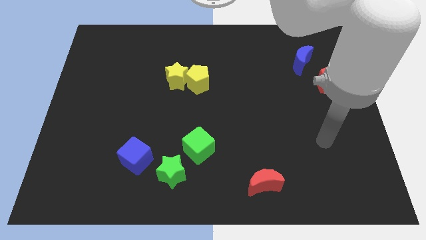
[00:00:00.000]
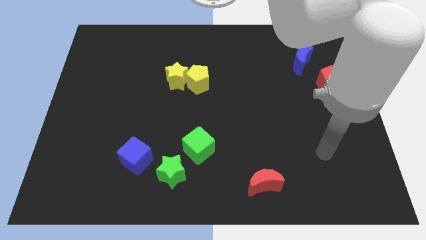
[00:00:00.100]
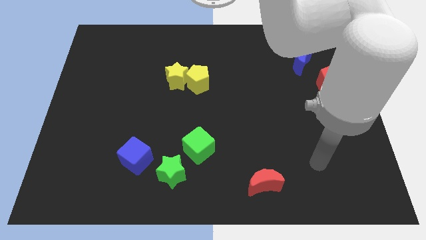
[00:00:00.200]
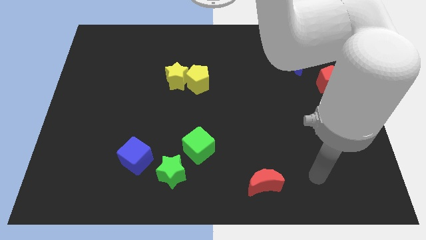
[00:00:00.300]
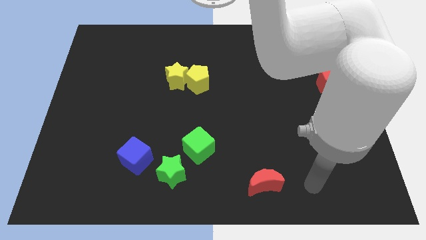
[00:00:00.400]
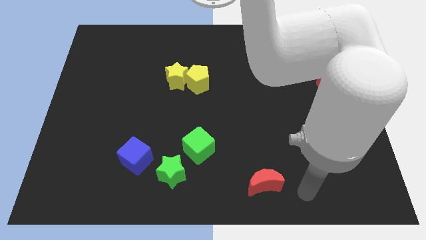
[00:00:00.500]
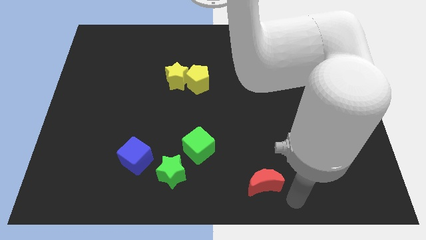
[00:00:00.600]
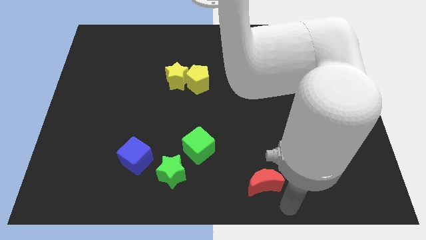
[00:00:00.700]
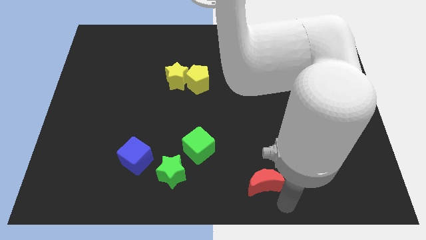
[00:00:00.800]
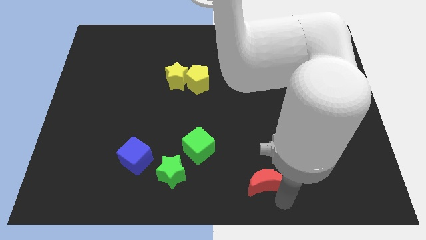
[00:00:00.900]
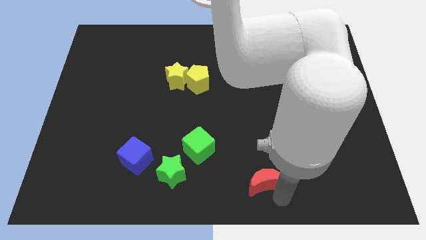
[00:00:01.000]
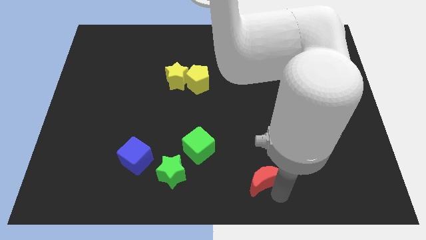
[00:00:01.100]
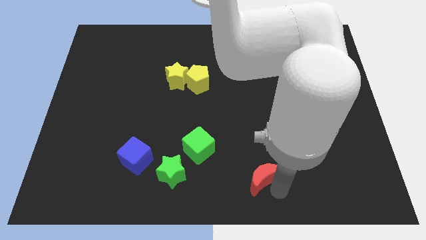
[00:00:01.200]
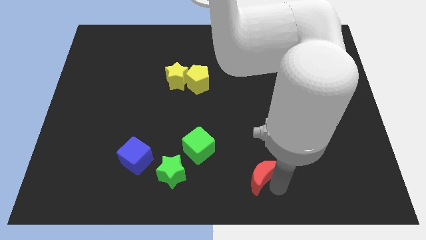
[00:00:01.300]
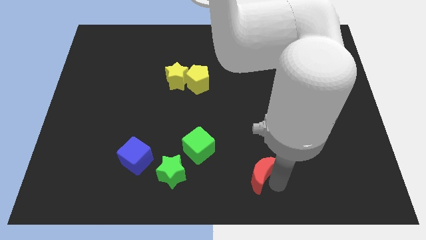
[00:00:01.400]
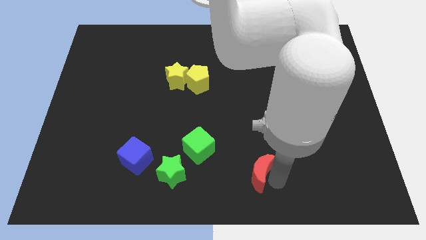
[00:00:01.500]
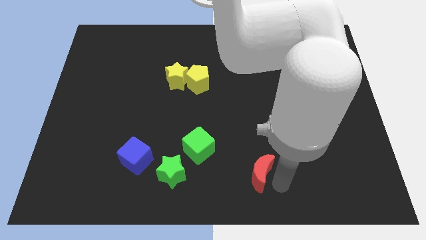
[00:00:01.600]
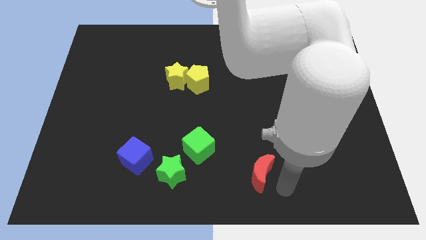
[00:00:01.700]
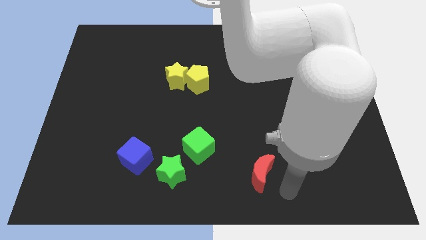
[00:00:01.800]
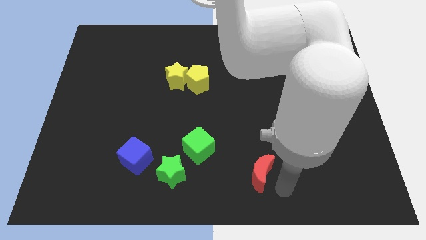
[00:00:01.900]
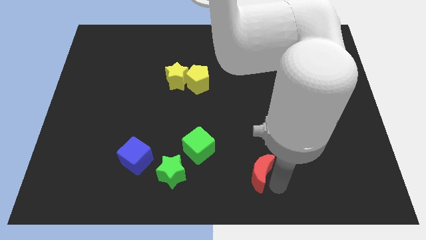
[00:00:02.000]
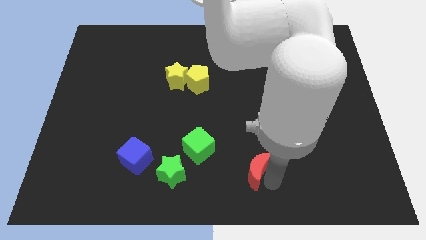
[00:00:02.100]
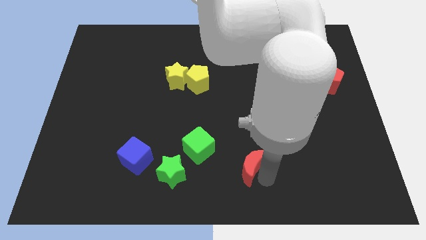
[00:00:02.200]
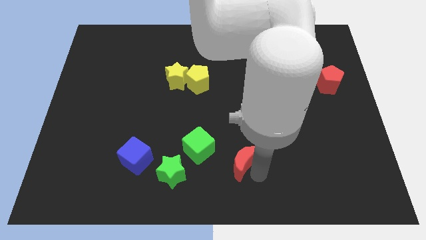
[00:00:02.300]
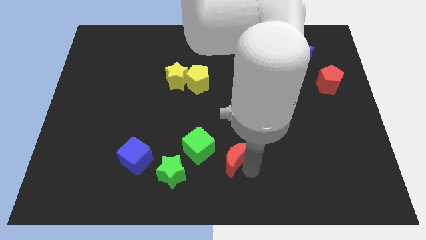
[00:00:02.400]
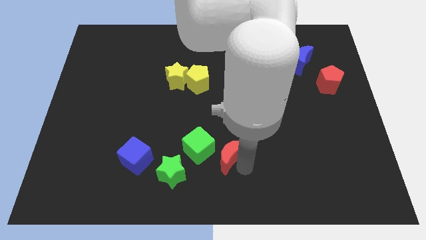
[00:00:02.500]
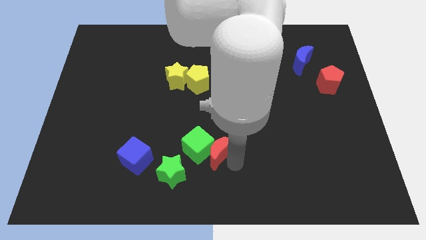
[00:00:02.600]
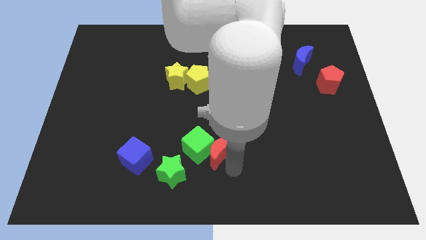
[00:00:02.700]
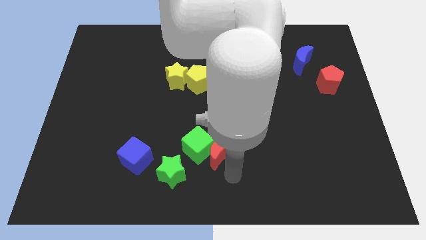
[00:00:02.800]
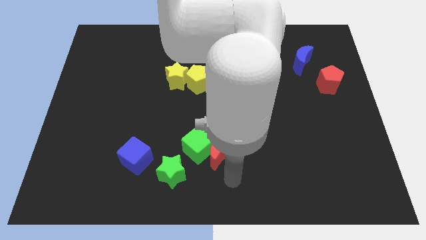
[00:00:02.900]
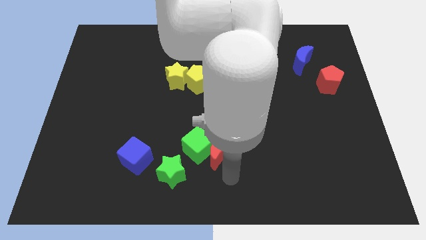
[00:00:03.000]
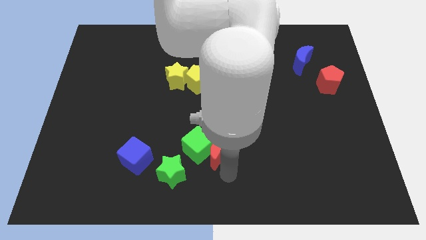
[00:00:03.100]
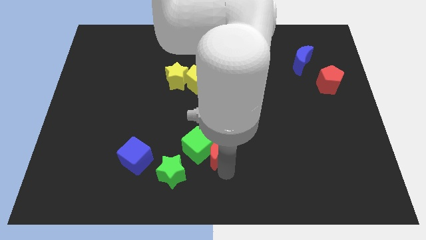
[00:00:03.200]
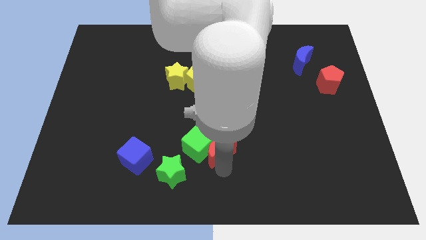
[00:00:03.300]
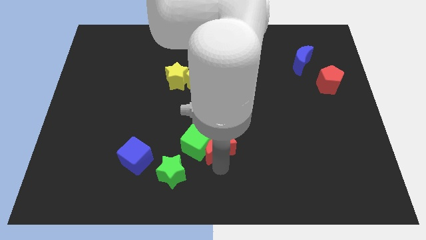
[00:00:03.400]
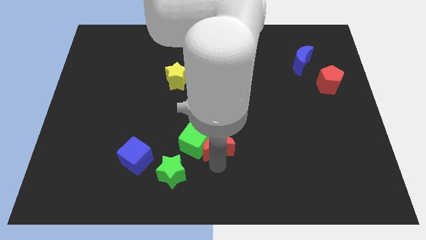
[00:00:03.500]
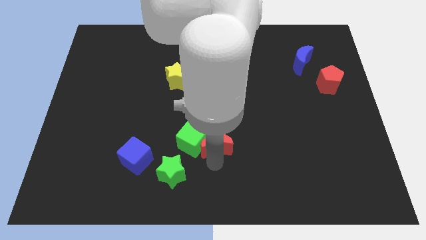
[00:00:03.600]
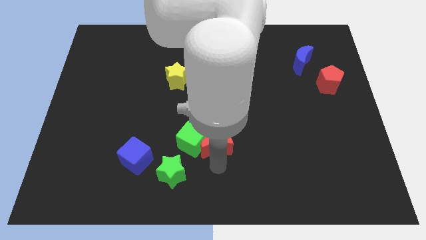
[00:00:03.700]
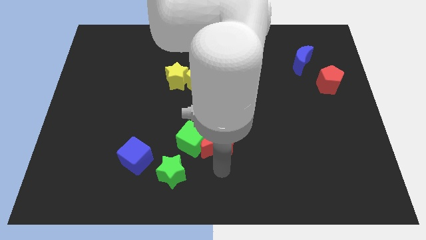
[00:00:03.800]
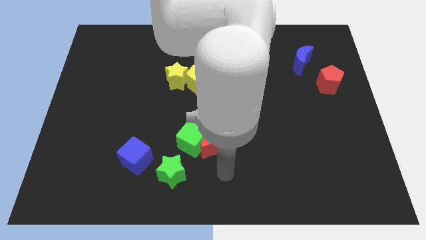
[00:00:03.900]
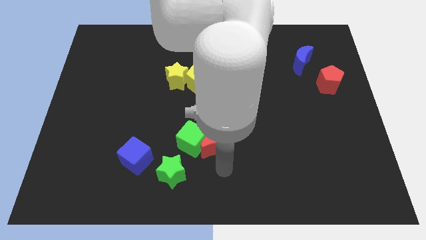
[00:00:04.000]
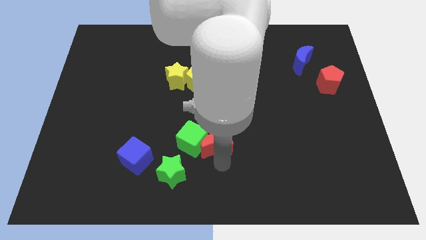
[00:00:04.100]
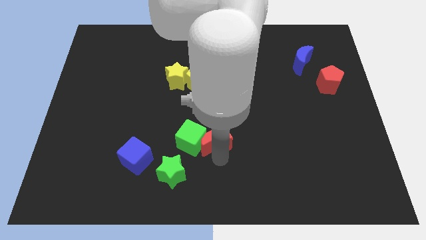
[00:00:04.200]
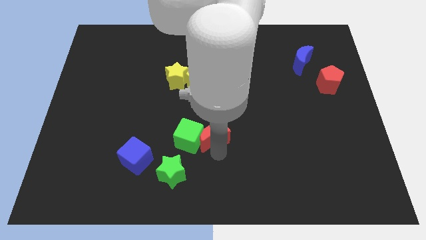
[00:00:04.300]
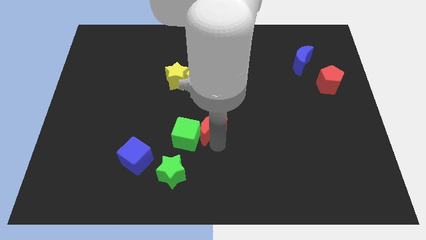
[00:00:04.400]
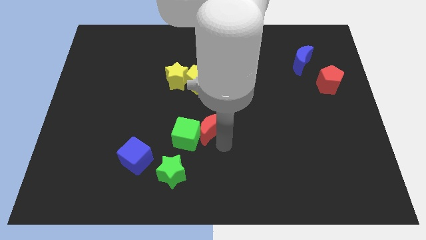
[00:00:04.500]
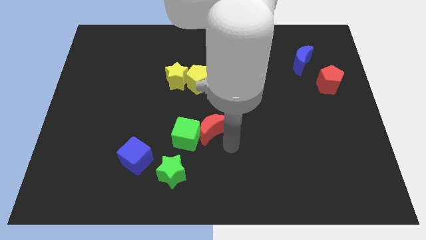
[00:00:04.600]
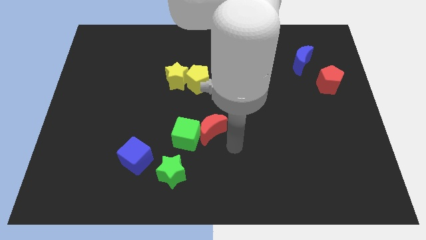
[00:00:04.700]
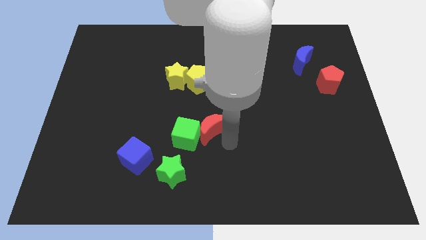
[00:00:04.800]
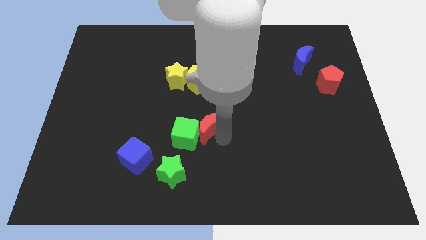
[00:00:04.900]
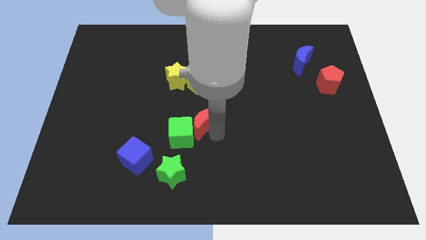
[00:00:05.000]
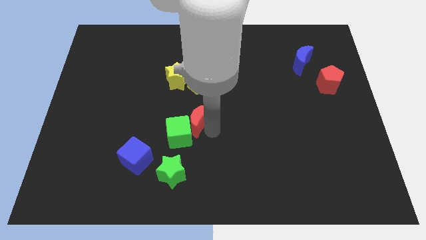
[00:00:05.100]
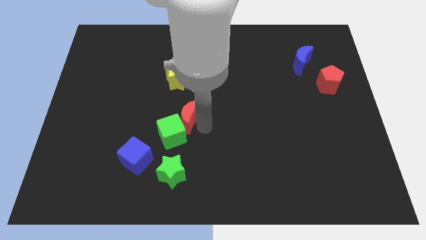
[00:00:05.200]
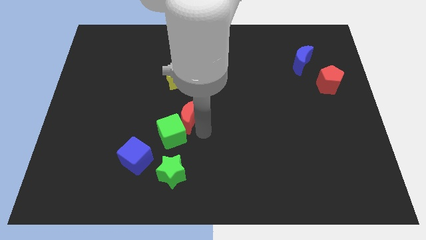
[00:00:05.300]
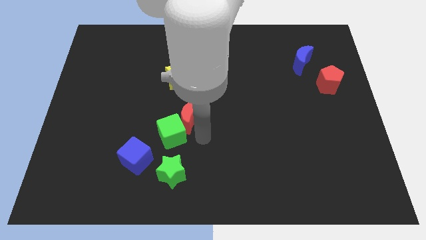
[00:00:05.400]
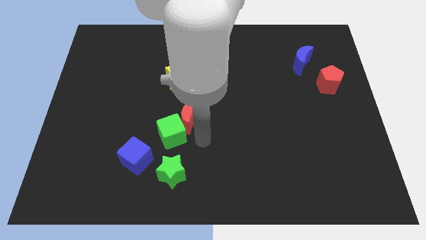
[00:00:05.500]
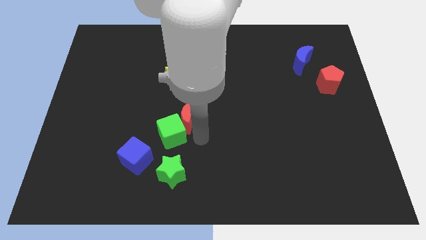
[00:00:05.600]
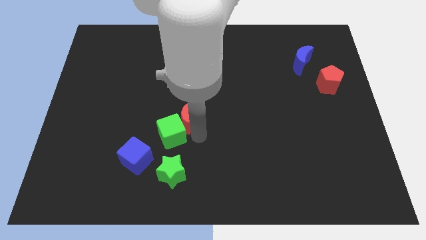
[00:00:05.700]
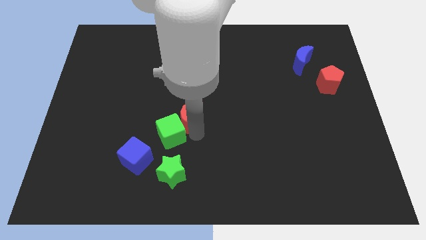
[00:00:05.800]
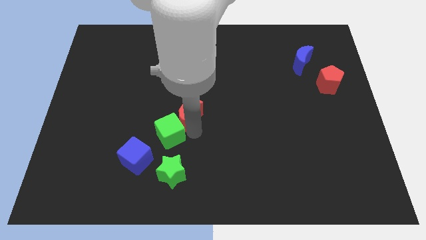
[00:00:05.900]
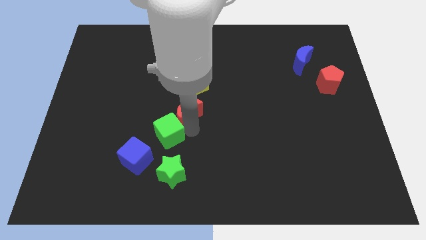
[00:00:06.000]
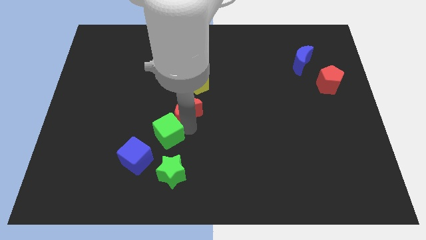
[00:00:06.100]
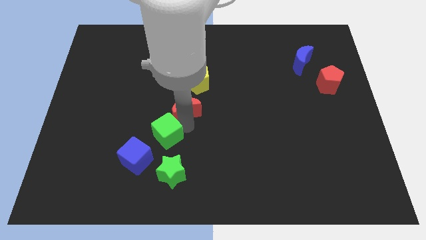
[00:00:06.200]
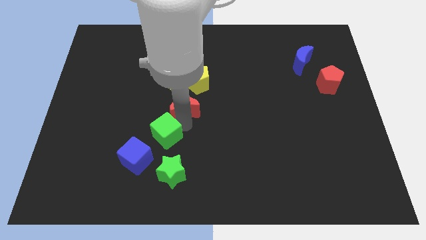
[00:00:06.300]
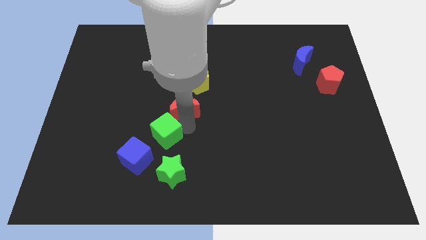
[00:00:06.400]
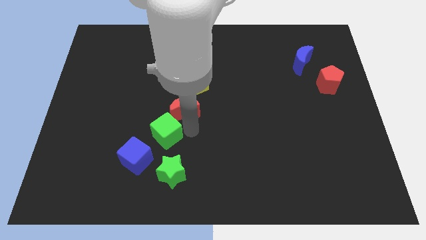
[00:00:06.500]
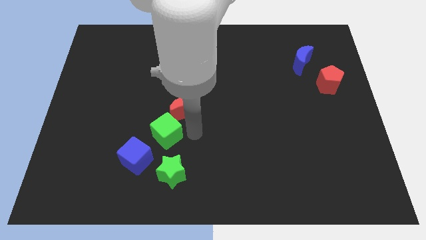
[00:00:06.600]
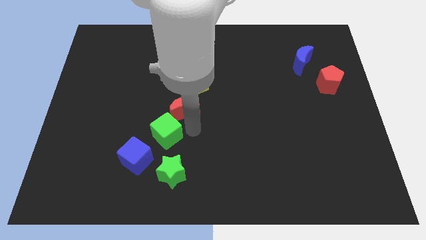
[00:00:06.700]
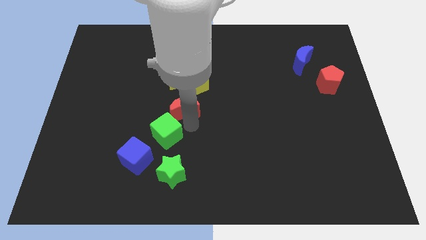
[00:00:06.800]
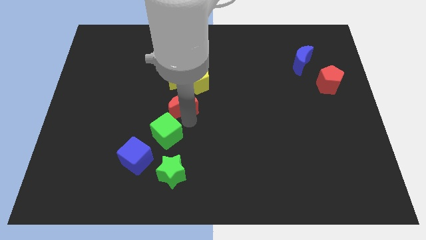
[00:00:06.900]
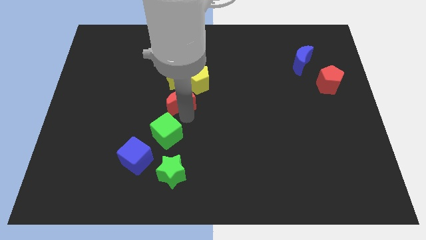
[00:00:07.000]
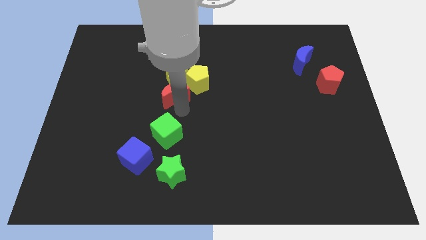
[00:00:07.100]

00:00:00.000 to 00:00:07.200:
move the red moon next to the yellow star
